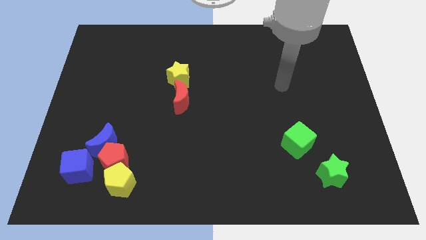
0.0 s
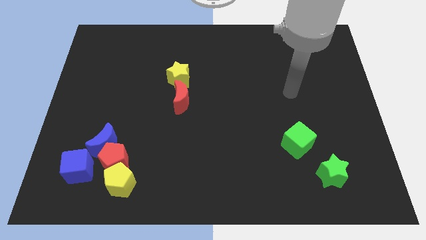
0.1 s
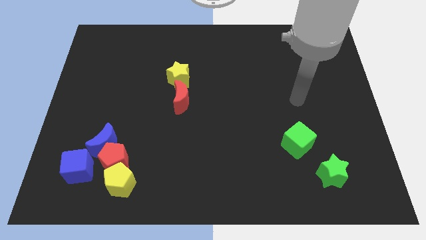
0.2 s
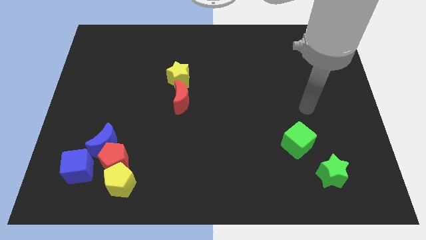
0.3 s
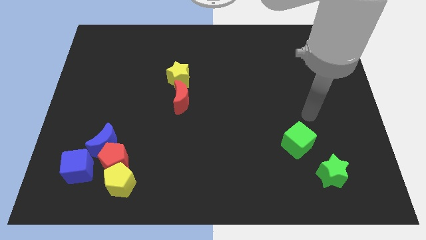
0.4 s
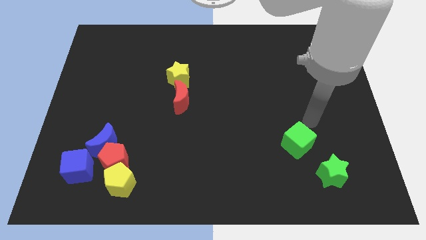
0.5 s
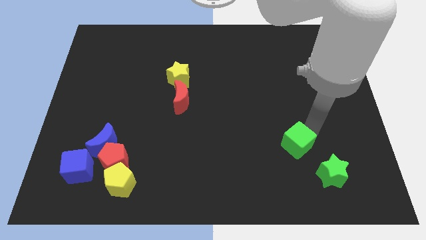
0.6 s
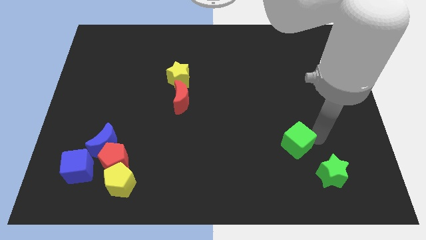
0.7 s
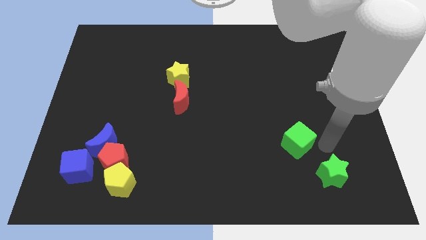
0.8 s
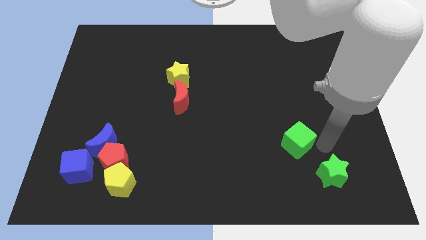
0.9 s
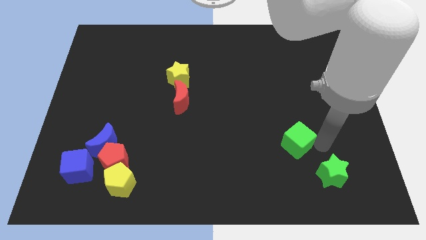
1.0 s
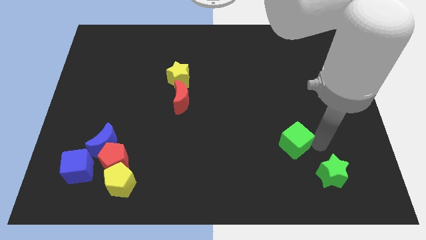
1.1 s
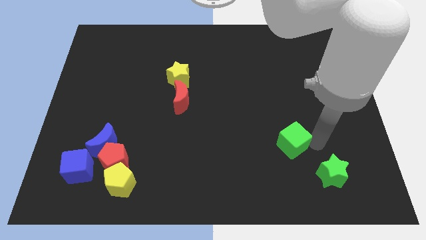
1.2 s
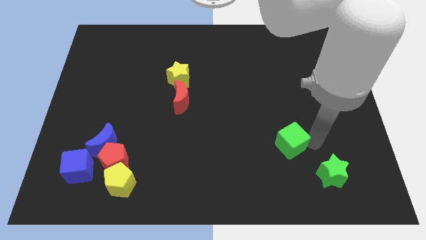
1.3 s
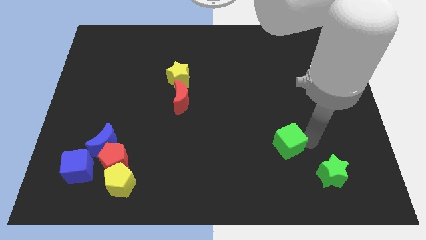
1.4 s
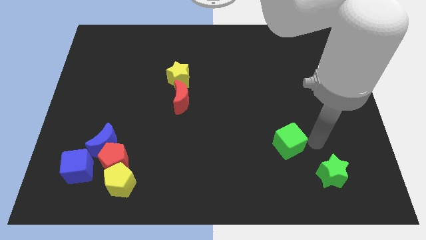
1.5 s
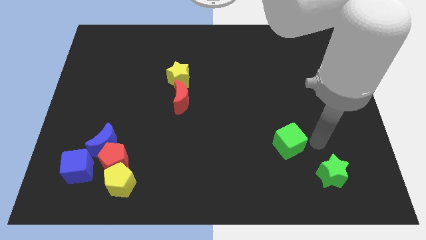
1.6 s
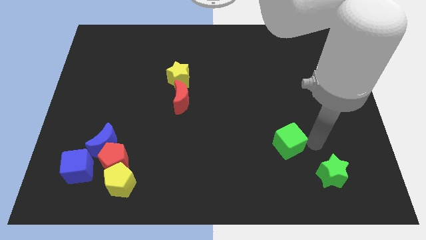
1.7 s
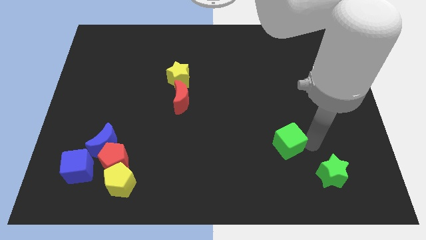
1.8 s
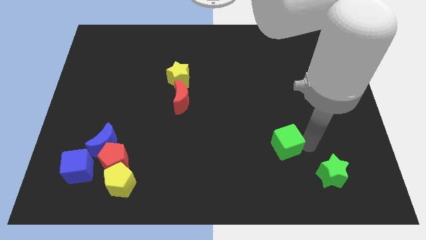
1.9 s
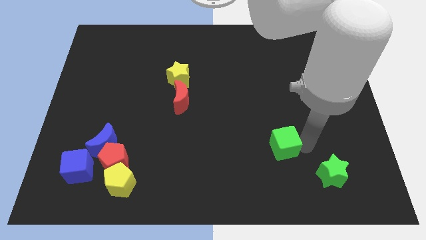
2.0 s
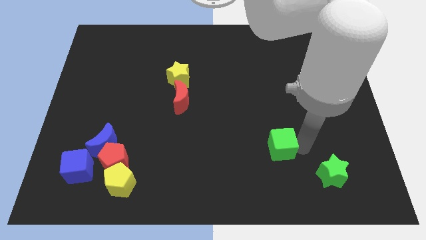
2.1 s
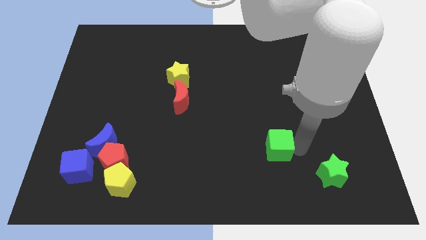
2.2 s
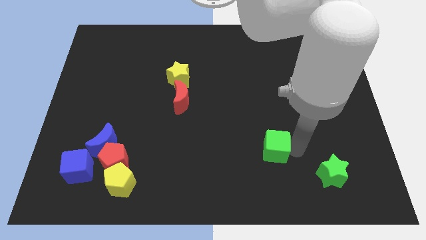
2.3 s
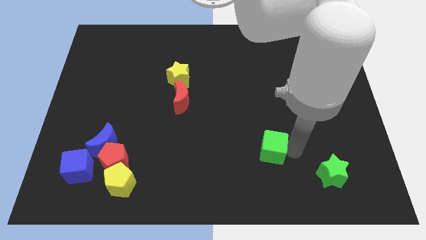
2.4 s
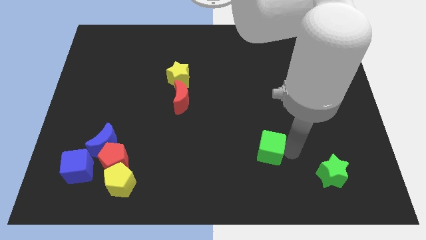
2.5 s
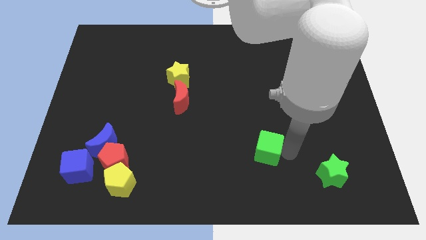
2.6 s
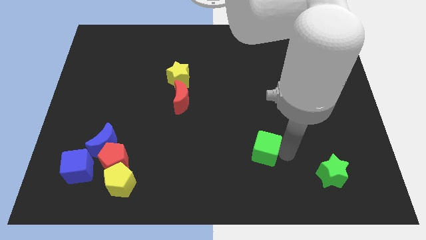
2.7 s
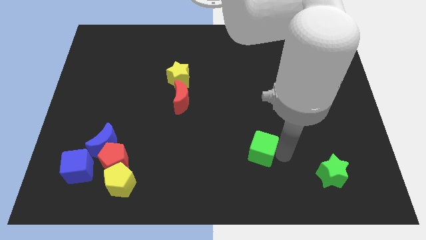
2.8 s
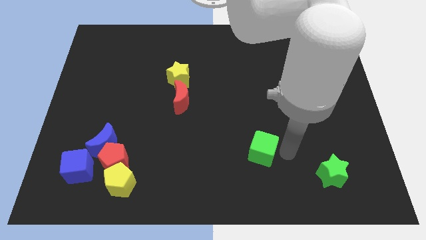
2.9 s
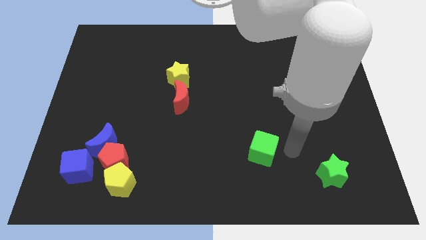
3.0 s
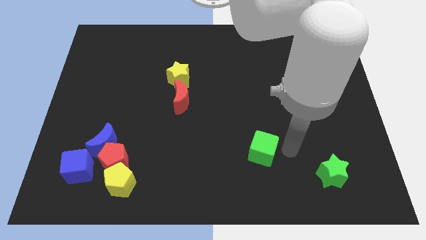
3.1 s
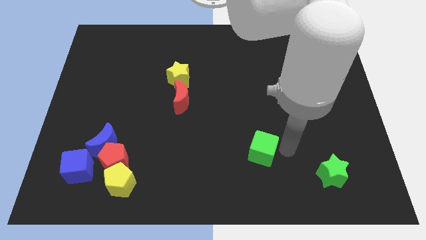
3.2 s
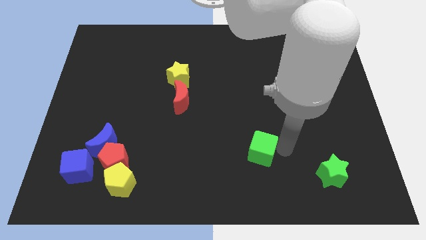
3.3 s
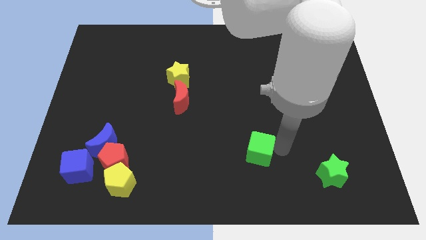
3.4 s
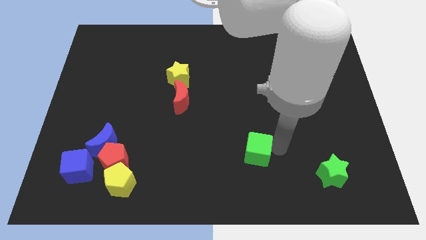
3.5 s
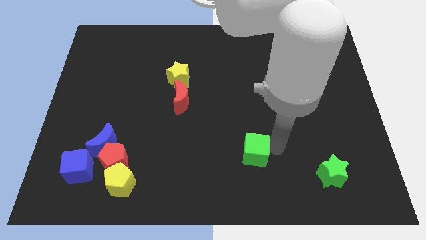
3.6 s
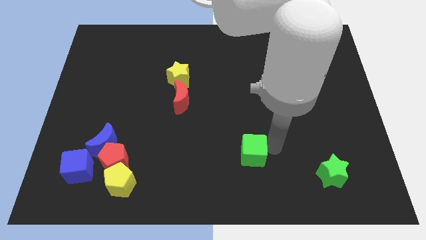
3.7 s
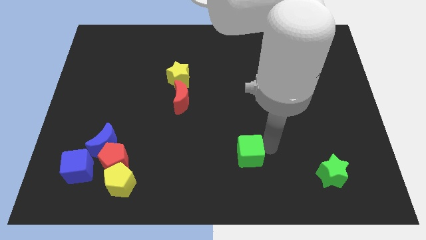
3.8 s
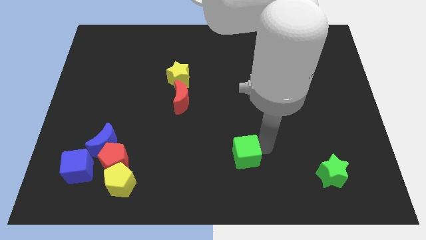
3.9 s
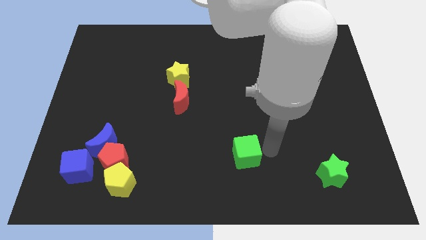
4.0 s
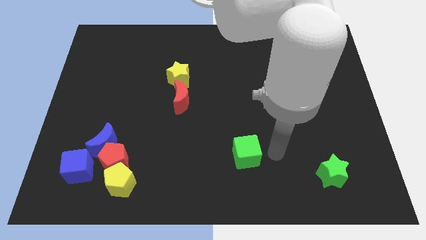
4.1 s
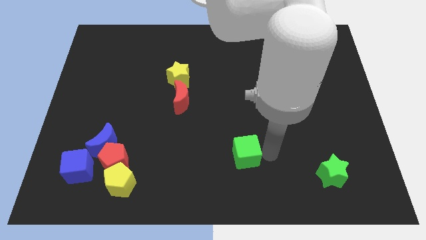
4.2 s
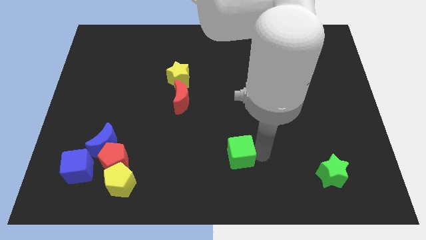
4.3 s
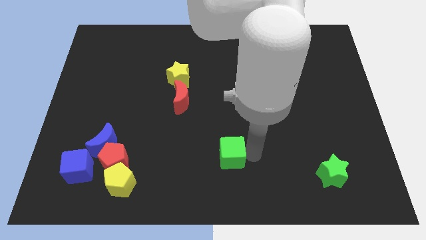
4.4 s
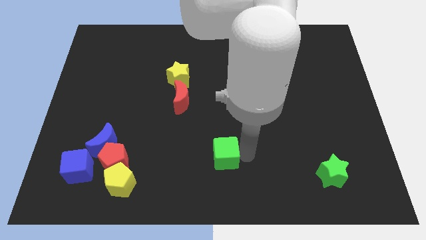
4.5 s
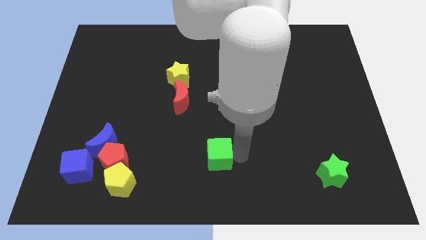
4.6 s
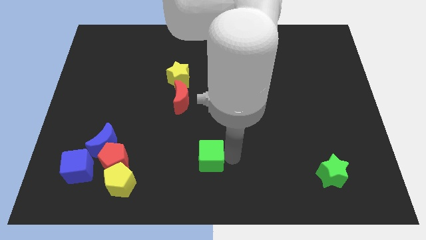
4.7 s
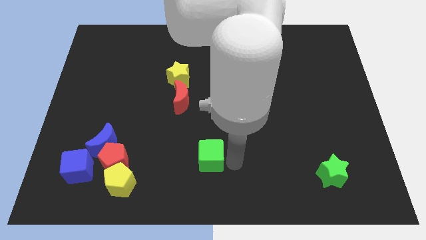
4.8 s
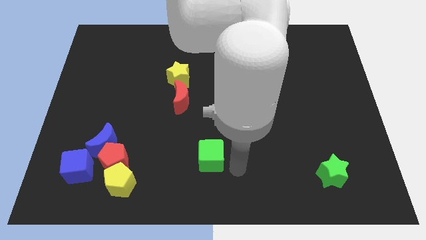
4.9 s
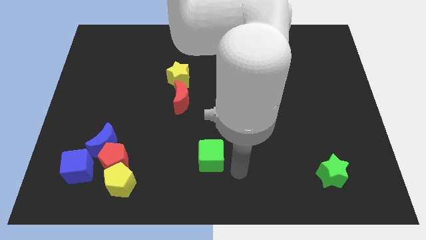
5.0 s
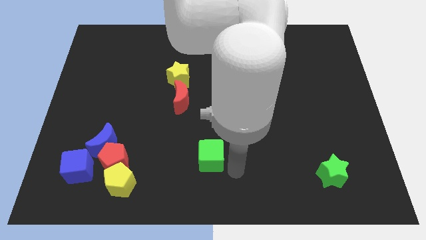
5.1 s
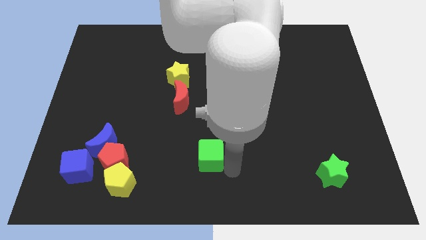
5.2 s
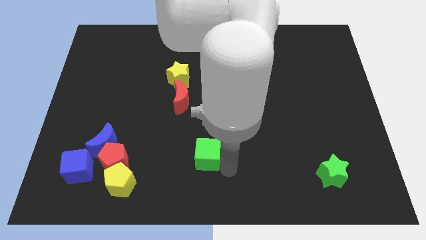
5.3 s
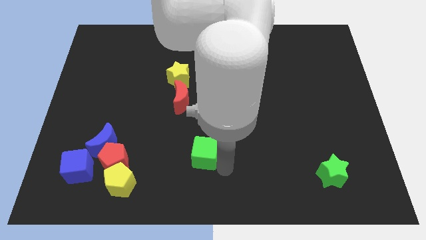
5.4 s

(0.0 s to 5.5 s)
move the green cube to the left

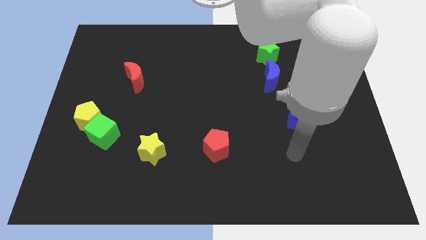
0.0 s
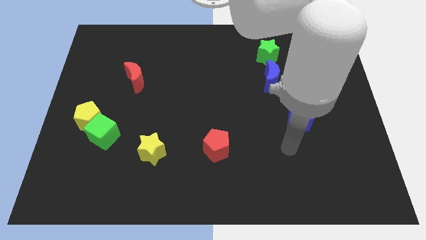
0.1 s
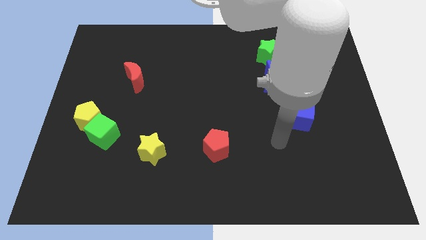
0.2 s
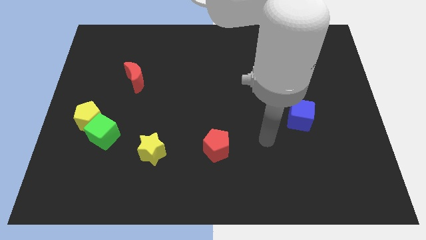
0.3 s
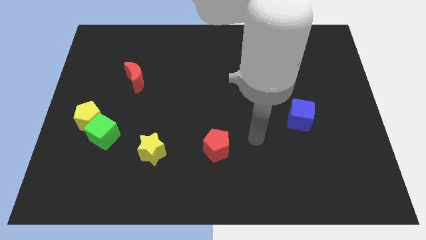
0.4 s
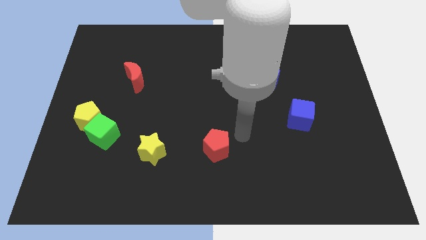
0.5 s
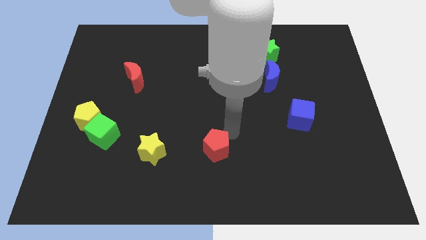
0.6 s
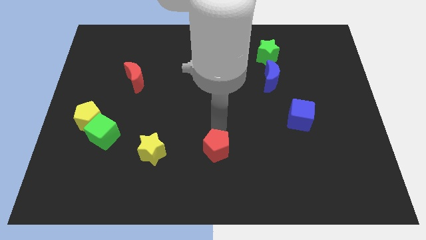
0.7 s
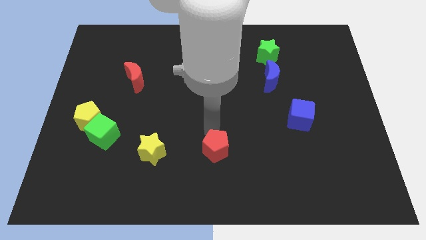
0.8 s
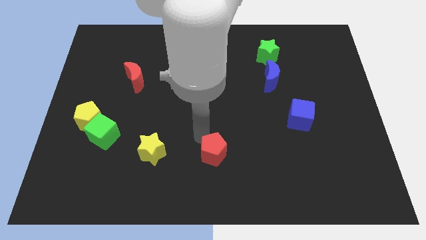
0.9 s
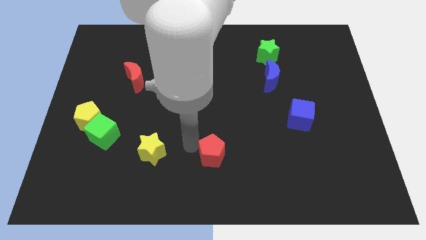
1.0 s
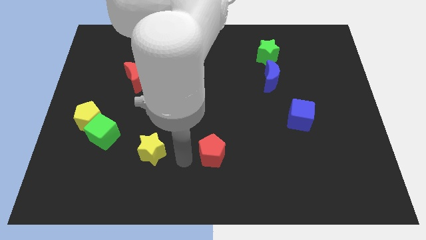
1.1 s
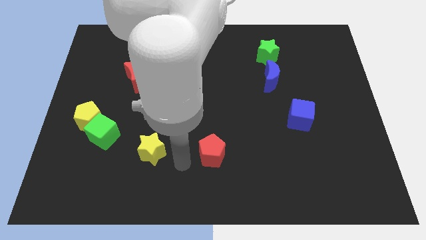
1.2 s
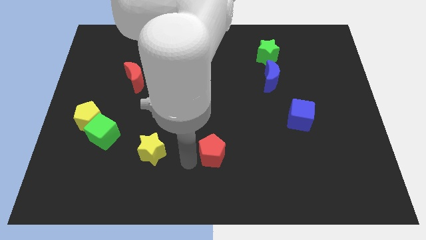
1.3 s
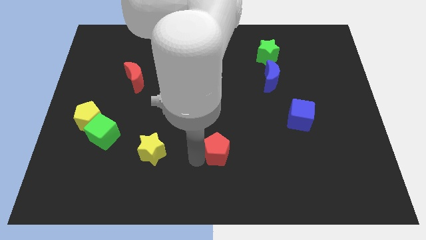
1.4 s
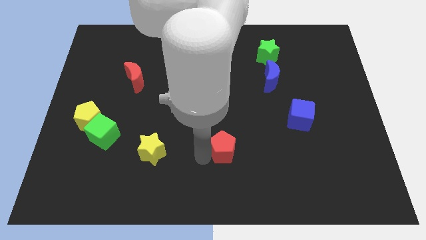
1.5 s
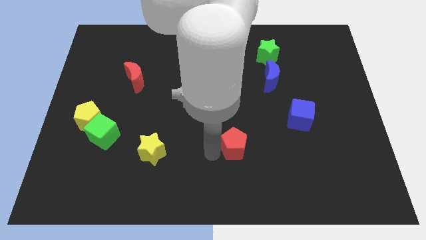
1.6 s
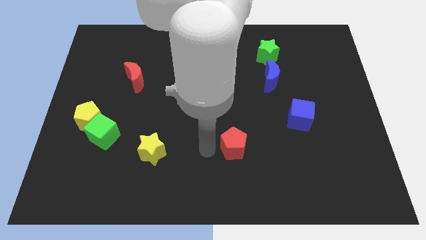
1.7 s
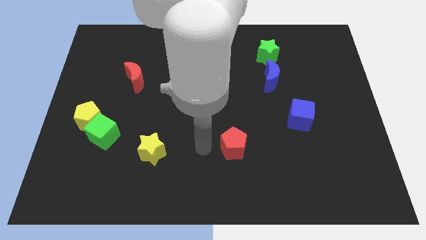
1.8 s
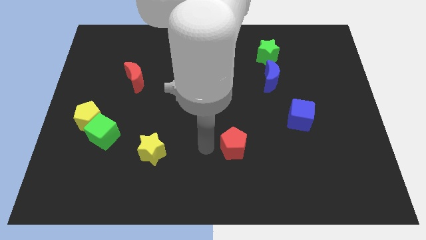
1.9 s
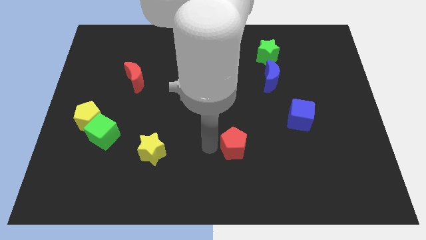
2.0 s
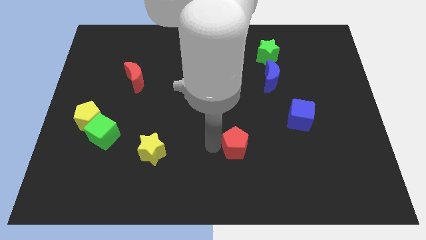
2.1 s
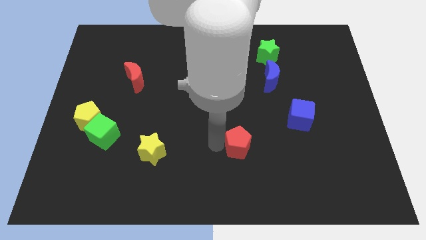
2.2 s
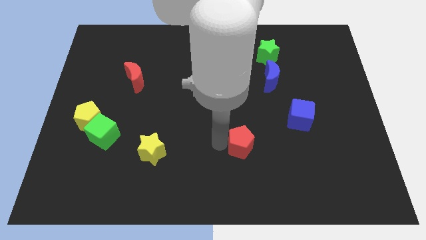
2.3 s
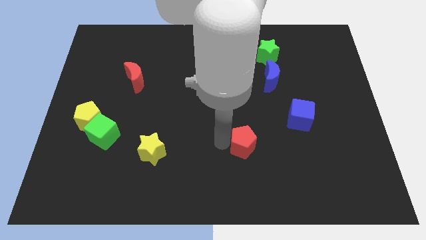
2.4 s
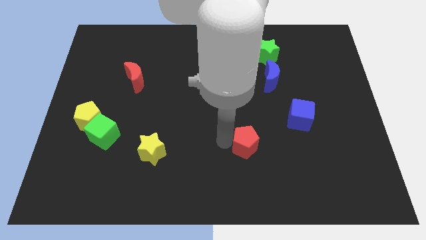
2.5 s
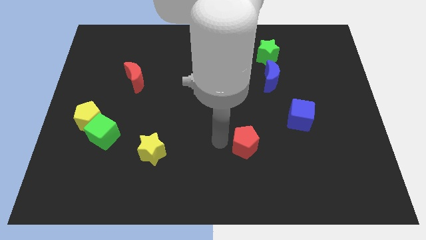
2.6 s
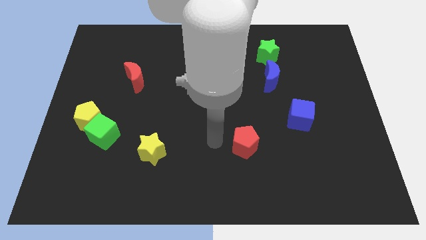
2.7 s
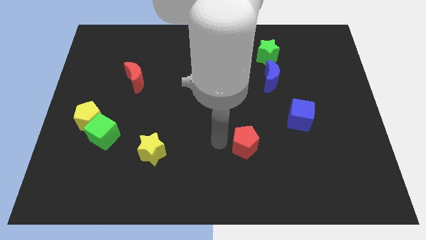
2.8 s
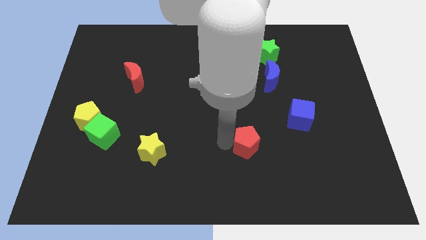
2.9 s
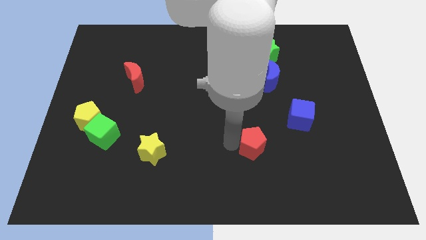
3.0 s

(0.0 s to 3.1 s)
push the red pentagon to the right slightly
